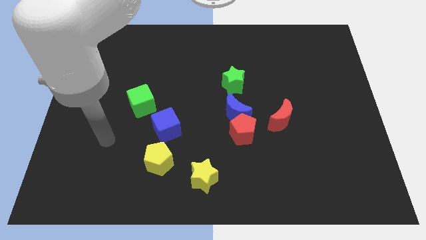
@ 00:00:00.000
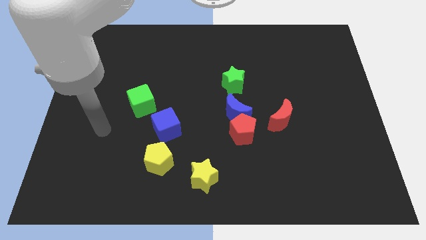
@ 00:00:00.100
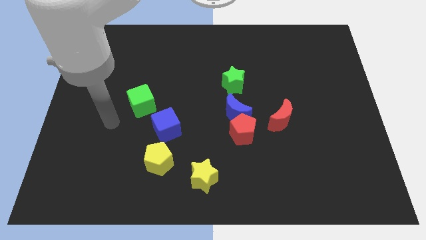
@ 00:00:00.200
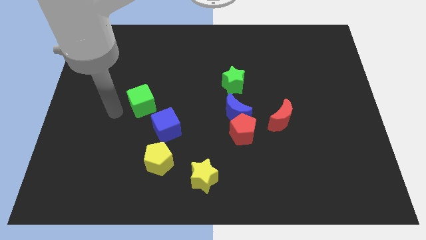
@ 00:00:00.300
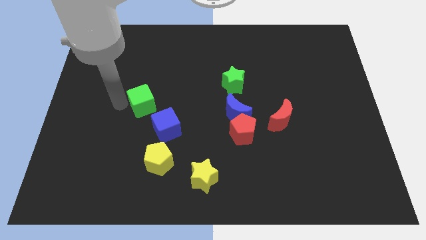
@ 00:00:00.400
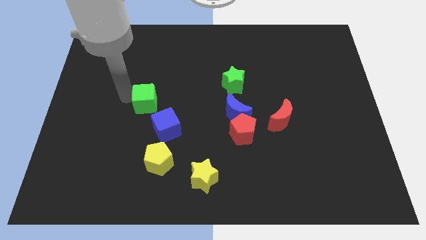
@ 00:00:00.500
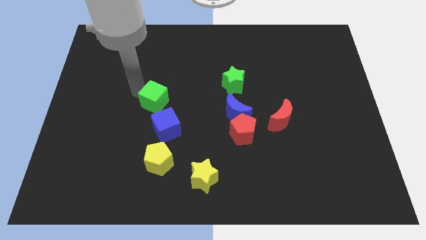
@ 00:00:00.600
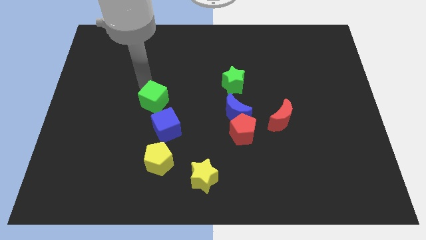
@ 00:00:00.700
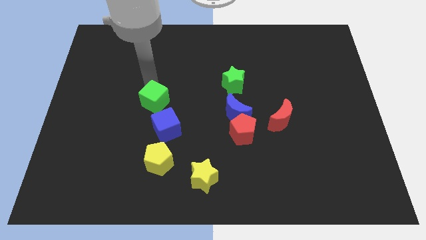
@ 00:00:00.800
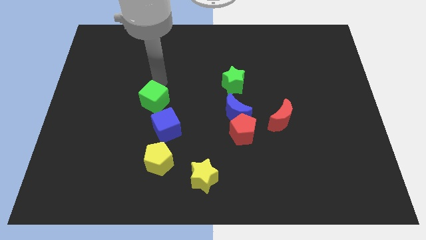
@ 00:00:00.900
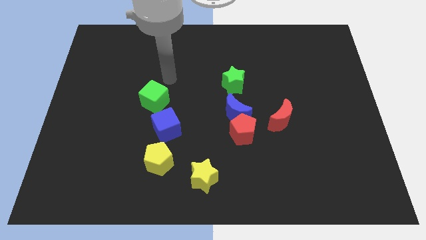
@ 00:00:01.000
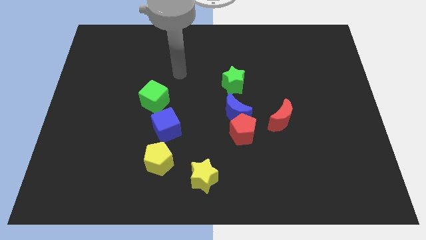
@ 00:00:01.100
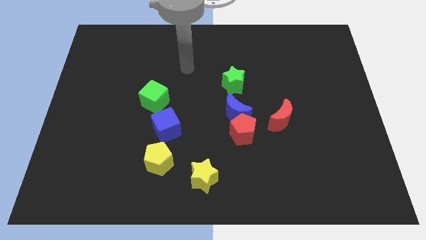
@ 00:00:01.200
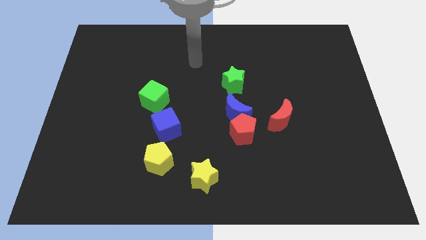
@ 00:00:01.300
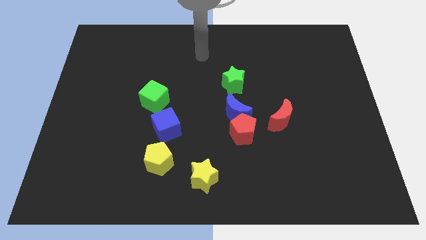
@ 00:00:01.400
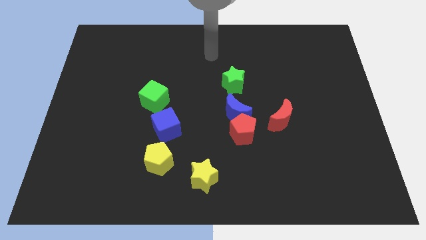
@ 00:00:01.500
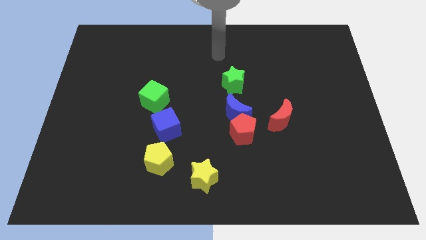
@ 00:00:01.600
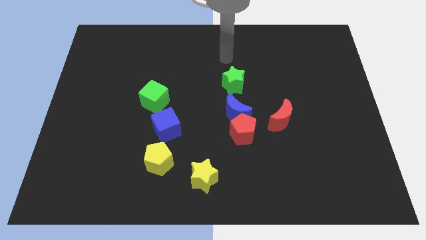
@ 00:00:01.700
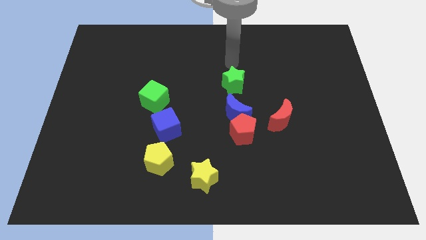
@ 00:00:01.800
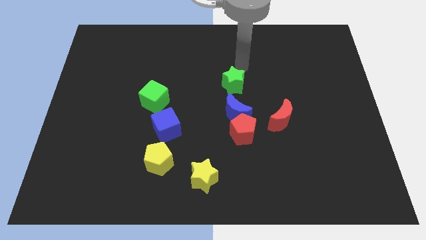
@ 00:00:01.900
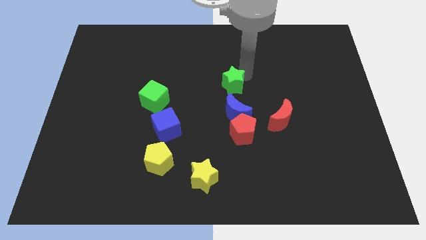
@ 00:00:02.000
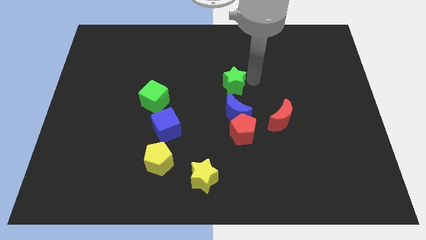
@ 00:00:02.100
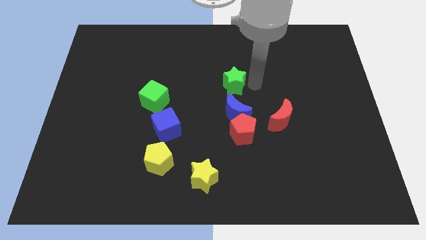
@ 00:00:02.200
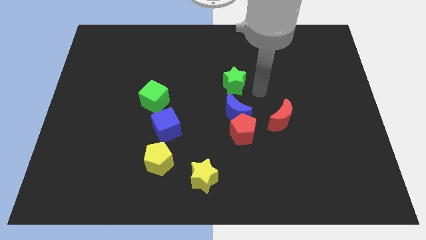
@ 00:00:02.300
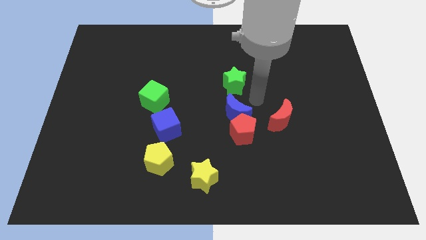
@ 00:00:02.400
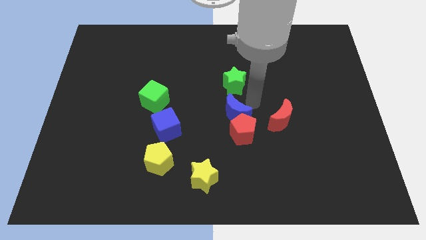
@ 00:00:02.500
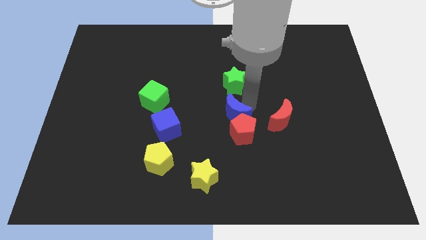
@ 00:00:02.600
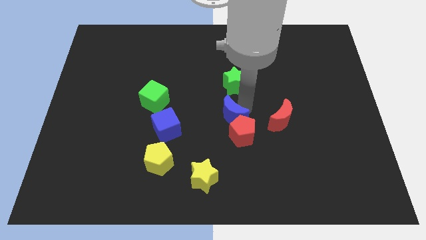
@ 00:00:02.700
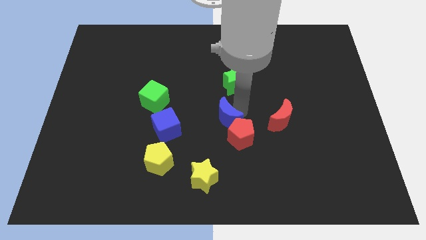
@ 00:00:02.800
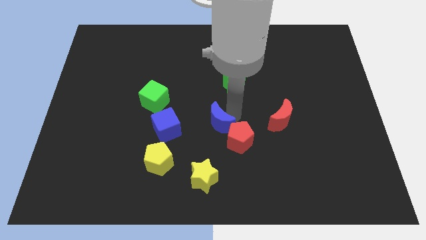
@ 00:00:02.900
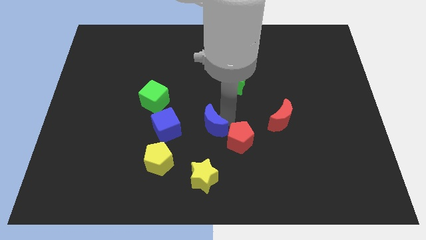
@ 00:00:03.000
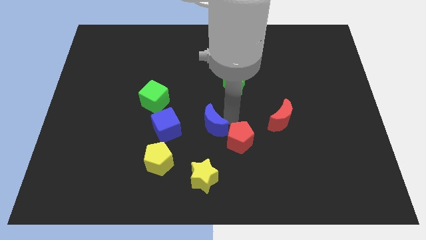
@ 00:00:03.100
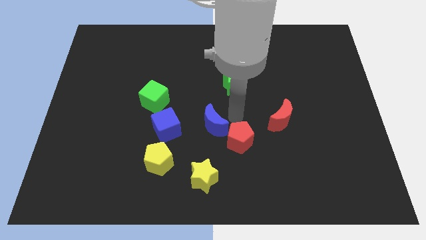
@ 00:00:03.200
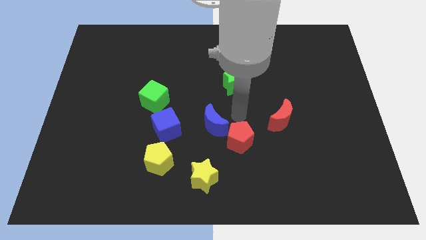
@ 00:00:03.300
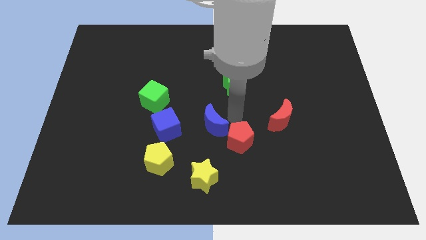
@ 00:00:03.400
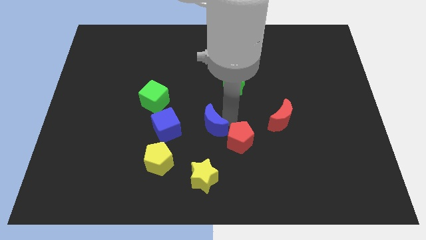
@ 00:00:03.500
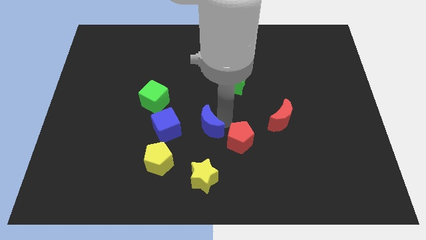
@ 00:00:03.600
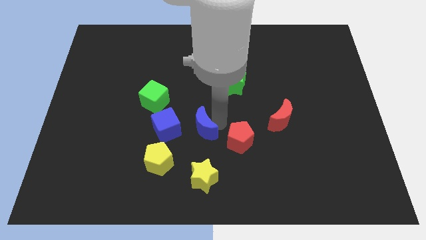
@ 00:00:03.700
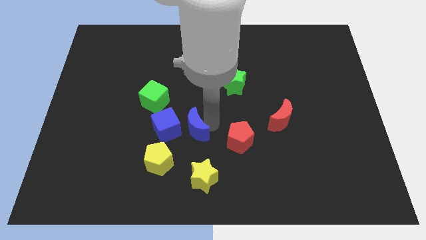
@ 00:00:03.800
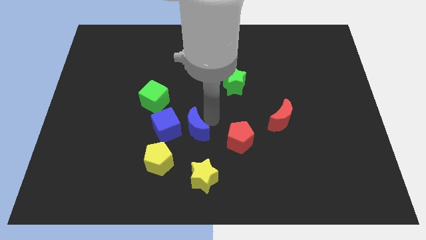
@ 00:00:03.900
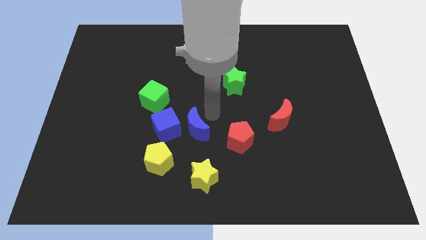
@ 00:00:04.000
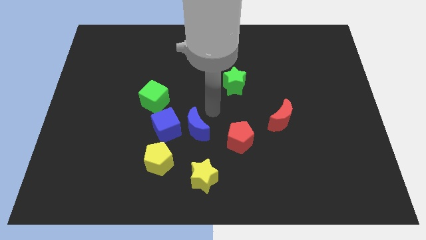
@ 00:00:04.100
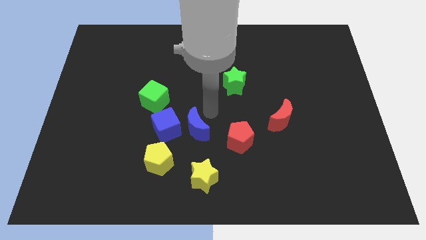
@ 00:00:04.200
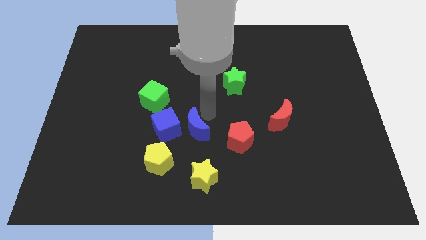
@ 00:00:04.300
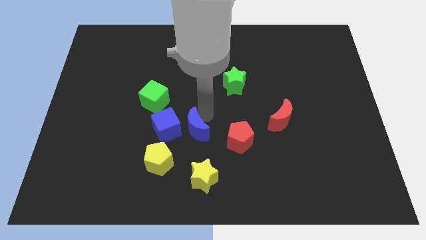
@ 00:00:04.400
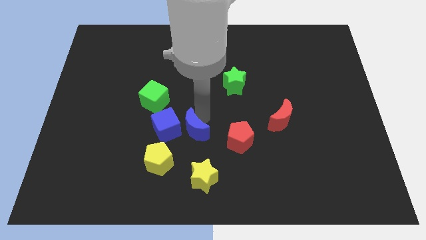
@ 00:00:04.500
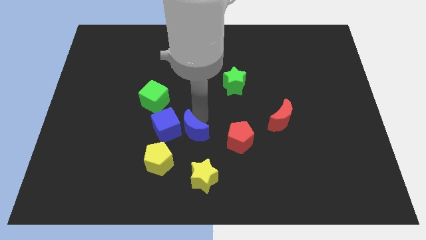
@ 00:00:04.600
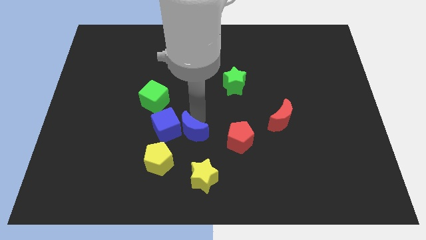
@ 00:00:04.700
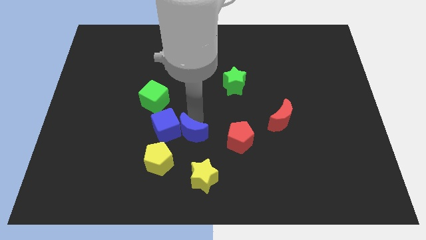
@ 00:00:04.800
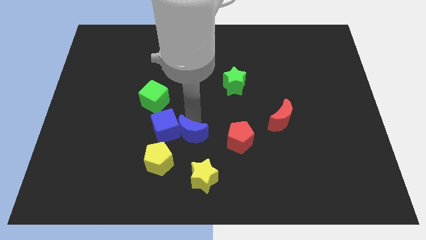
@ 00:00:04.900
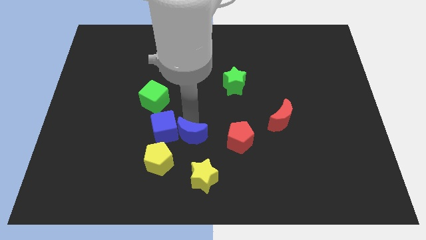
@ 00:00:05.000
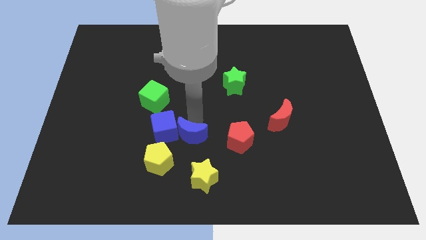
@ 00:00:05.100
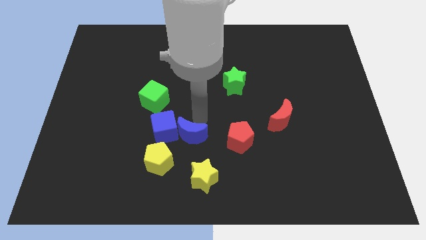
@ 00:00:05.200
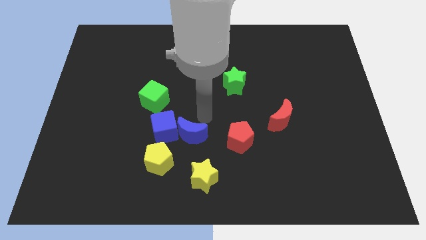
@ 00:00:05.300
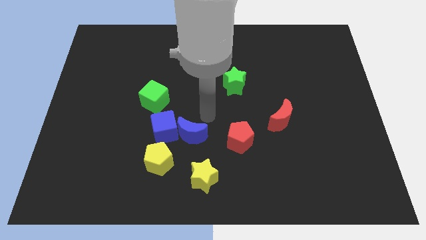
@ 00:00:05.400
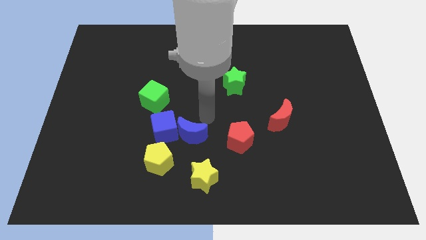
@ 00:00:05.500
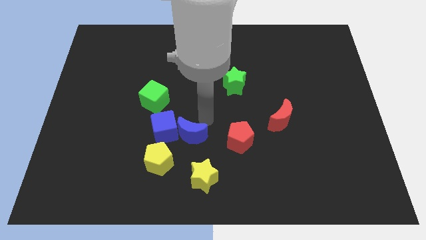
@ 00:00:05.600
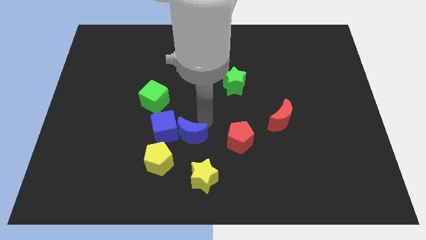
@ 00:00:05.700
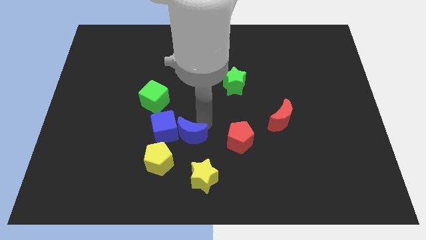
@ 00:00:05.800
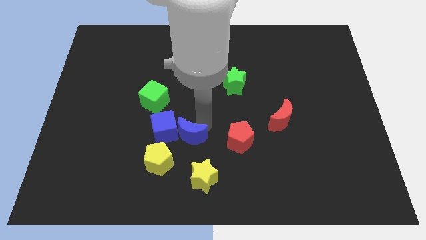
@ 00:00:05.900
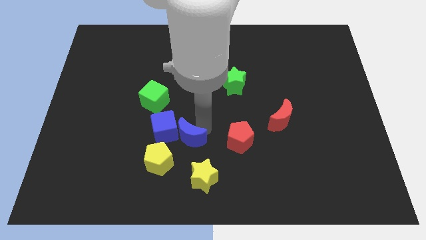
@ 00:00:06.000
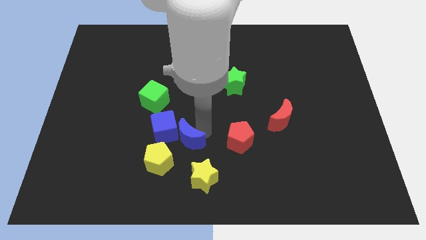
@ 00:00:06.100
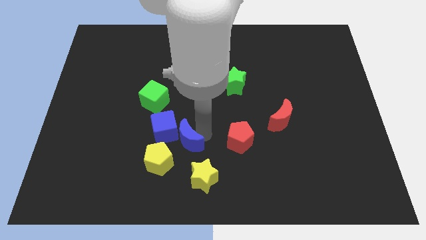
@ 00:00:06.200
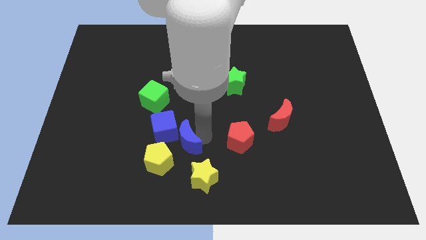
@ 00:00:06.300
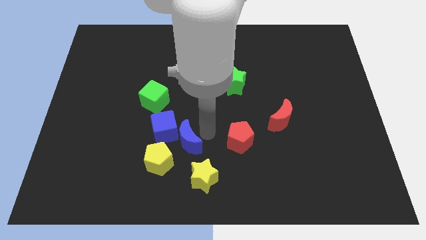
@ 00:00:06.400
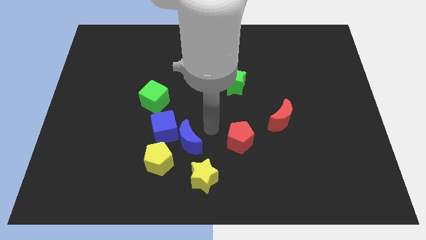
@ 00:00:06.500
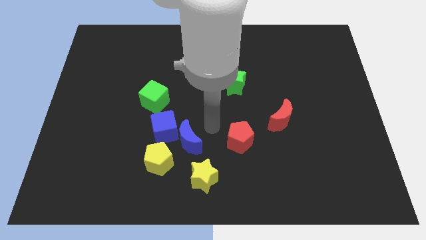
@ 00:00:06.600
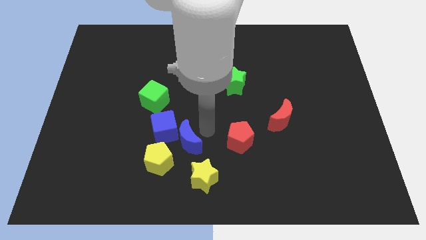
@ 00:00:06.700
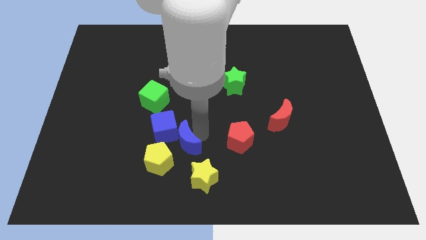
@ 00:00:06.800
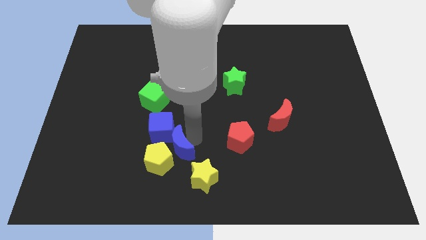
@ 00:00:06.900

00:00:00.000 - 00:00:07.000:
put the blue moon close to the yellow pentagon
